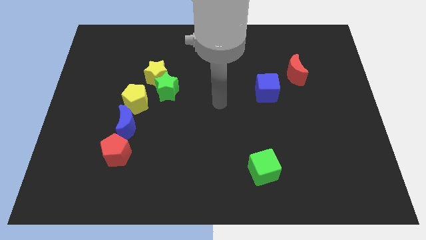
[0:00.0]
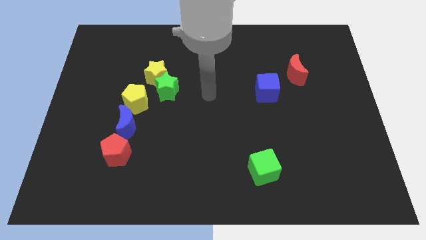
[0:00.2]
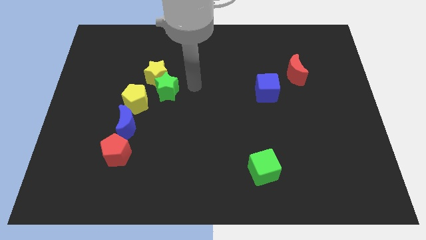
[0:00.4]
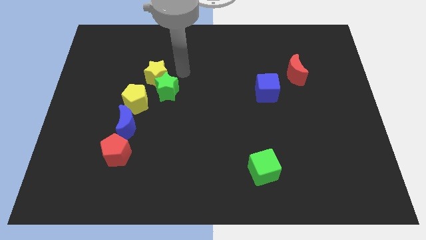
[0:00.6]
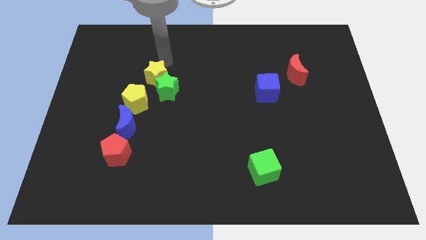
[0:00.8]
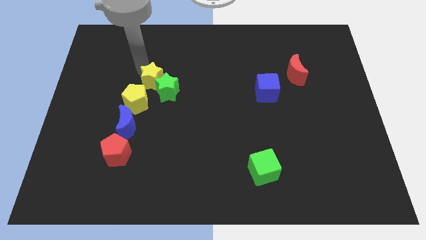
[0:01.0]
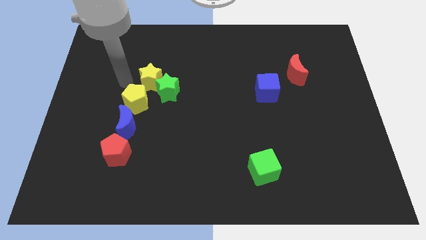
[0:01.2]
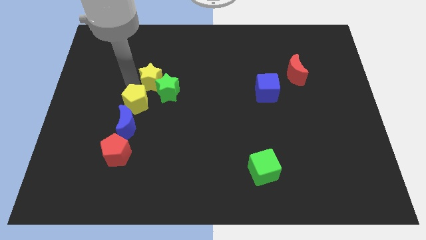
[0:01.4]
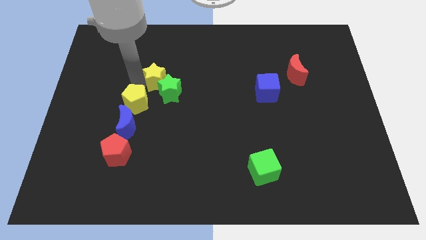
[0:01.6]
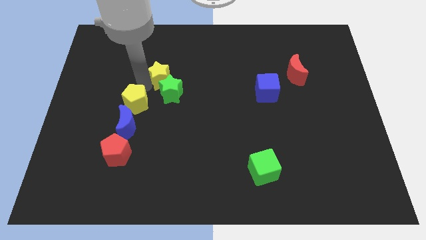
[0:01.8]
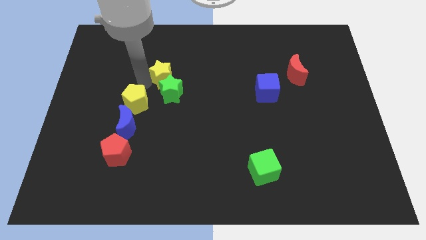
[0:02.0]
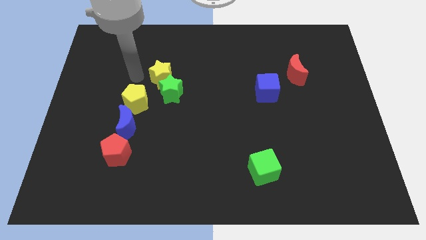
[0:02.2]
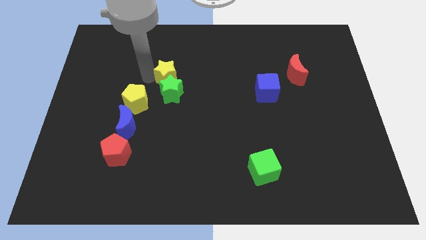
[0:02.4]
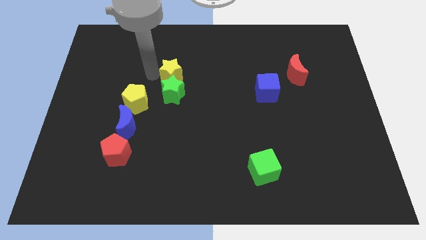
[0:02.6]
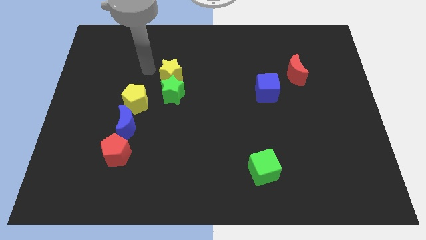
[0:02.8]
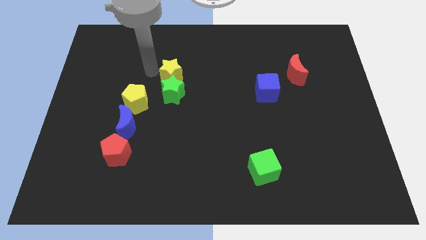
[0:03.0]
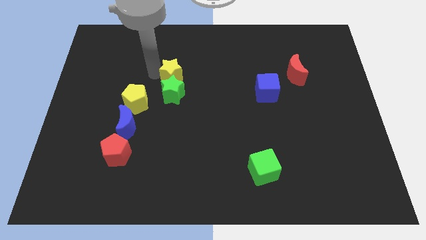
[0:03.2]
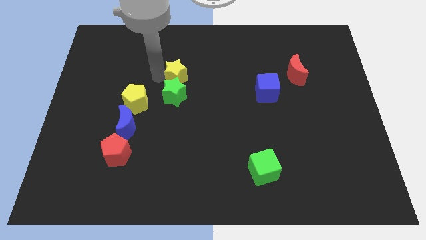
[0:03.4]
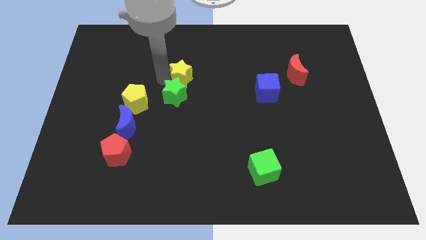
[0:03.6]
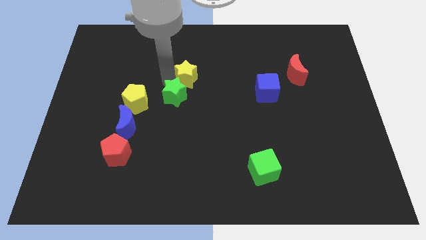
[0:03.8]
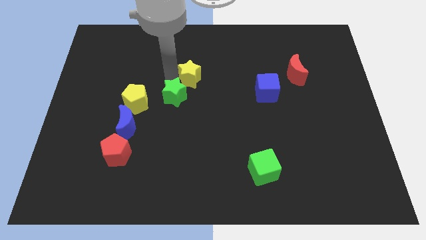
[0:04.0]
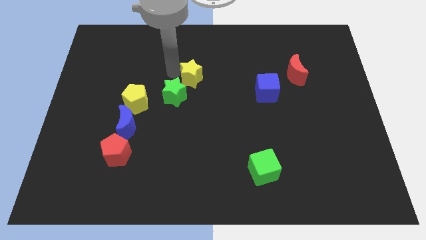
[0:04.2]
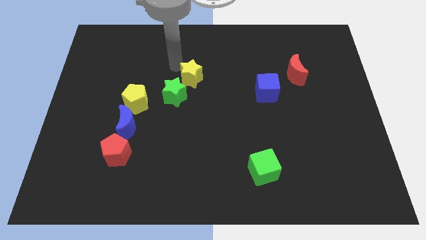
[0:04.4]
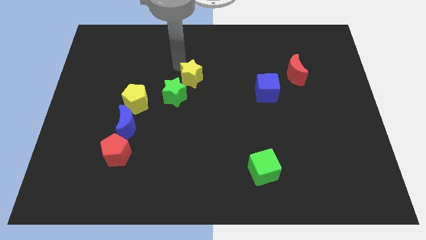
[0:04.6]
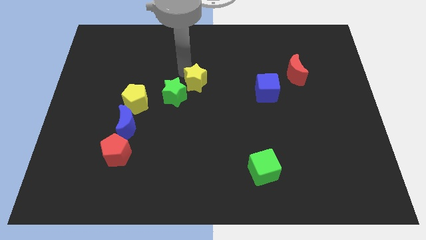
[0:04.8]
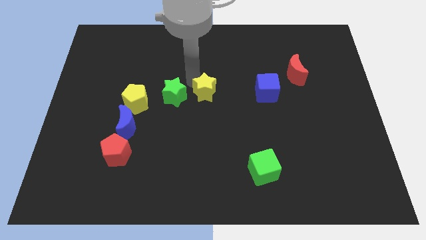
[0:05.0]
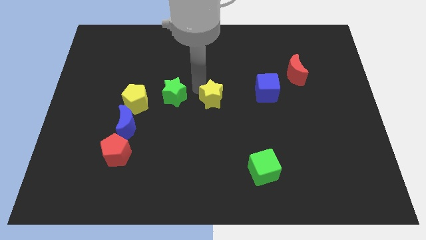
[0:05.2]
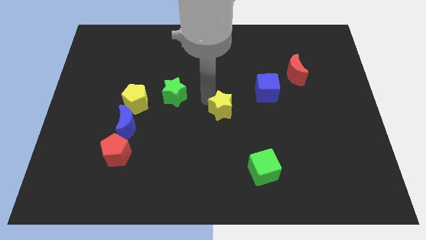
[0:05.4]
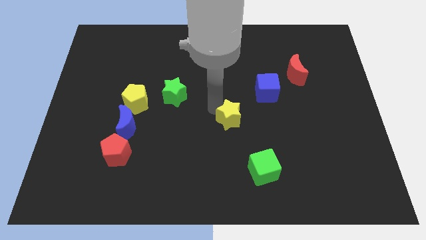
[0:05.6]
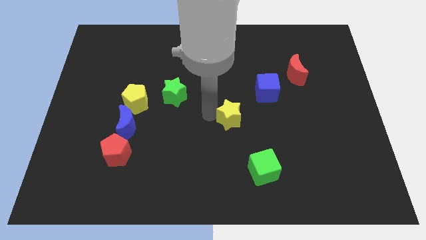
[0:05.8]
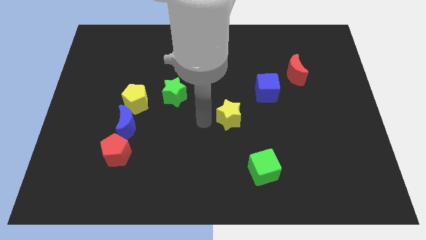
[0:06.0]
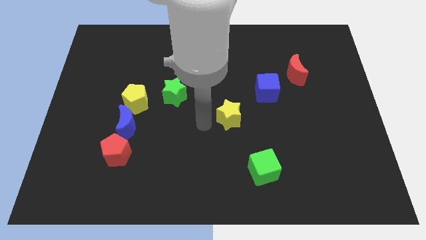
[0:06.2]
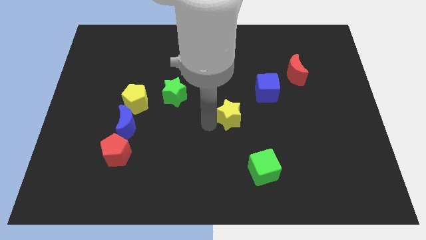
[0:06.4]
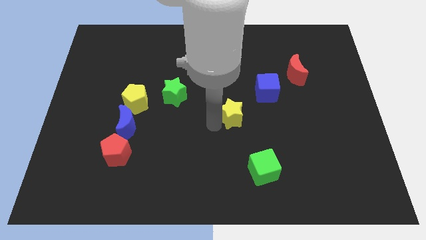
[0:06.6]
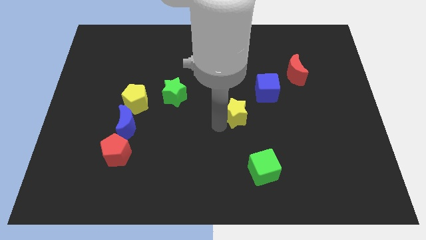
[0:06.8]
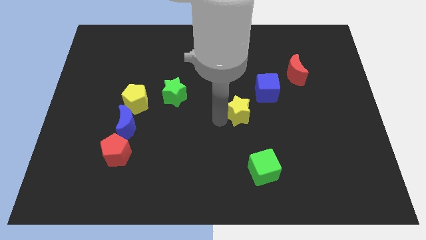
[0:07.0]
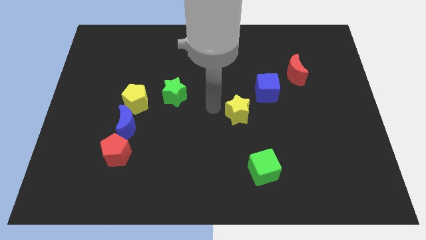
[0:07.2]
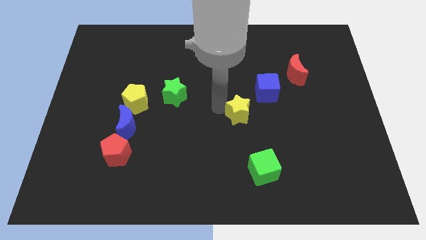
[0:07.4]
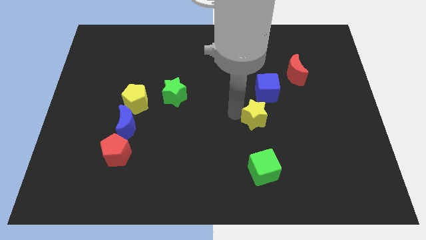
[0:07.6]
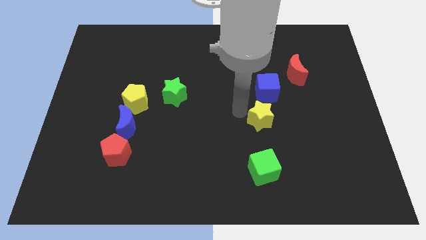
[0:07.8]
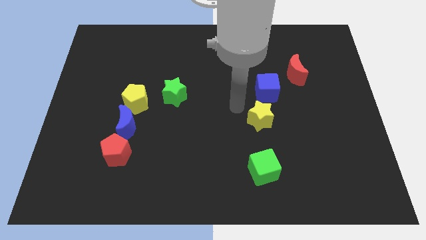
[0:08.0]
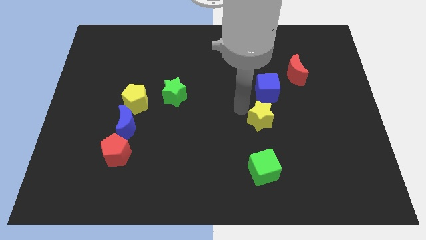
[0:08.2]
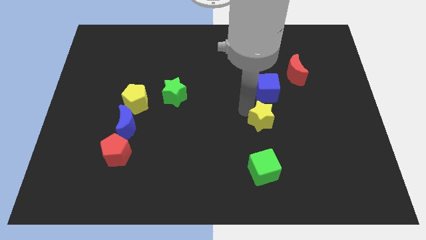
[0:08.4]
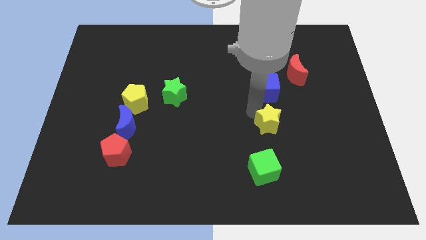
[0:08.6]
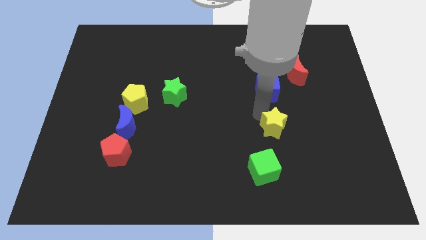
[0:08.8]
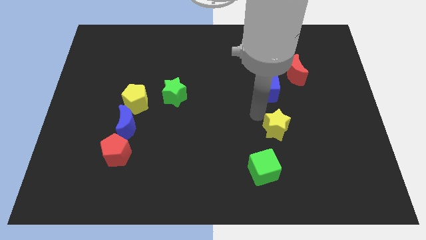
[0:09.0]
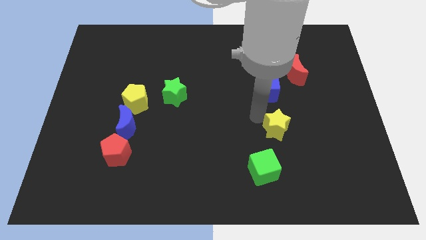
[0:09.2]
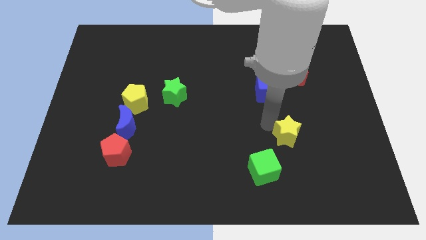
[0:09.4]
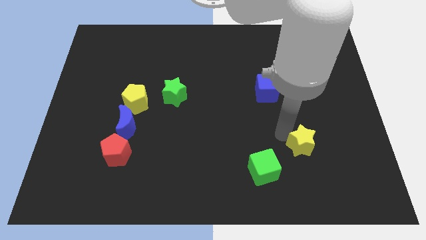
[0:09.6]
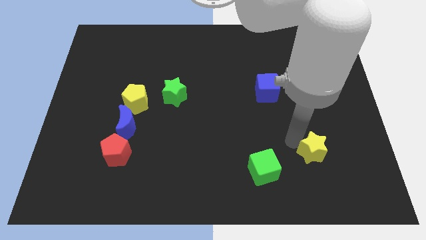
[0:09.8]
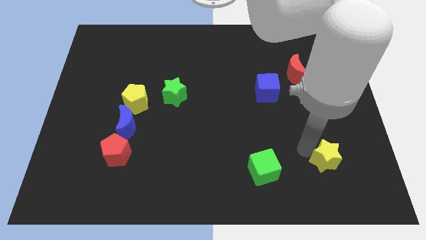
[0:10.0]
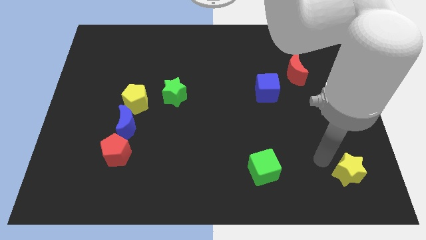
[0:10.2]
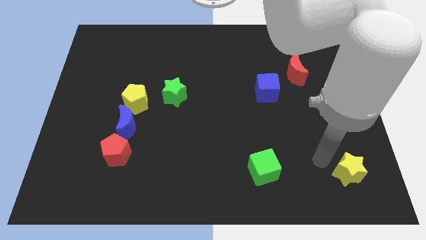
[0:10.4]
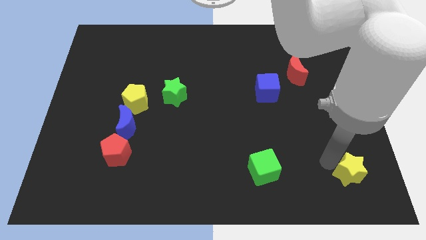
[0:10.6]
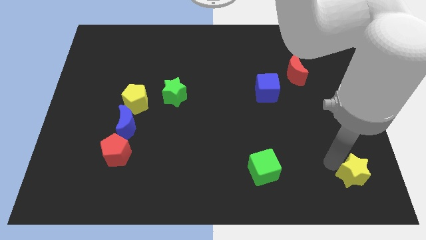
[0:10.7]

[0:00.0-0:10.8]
push the yellow star to the bottom right
